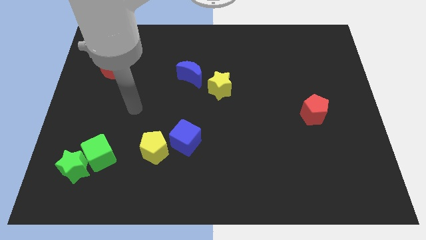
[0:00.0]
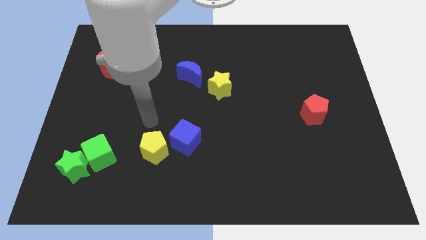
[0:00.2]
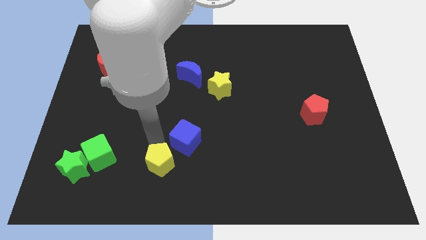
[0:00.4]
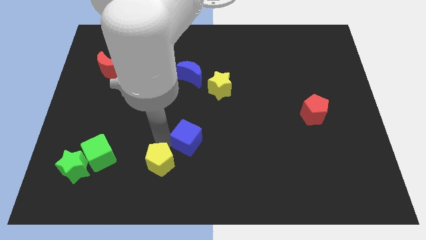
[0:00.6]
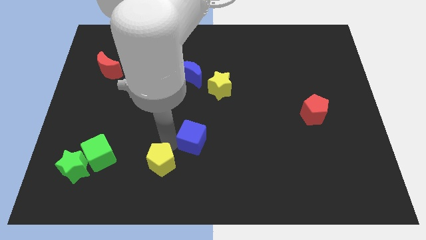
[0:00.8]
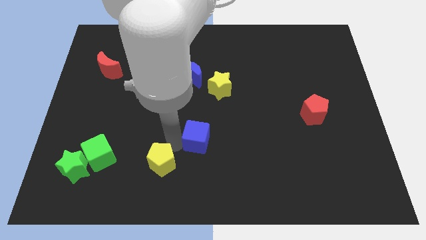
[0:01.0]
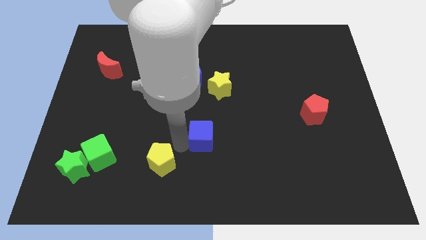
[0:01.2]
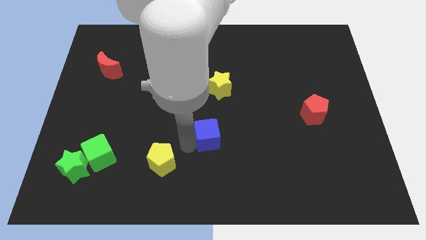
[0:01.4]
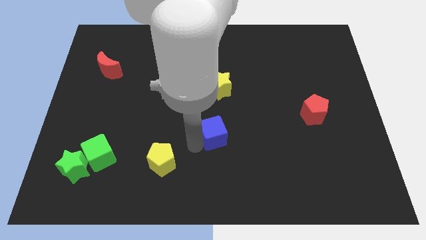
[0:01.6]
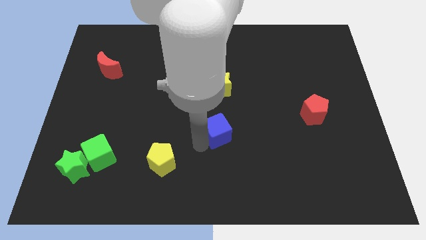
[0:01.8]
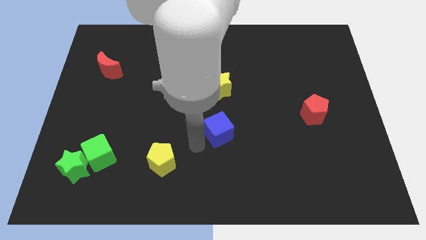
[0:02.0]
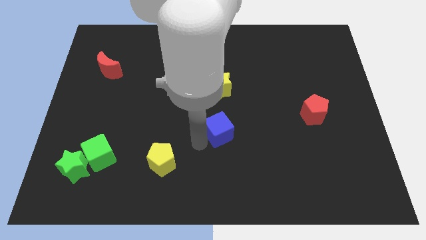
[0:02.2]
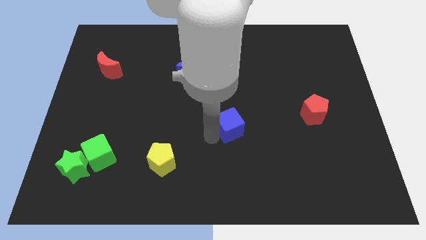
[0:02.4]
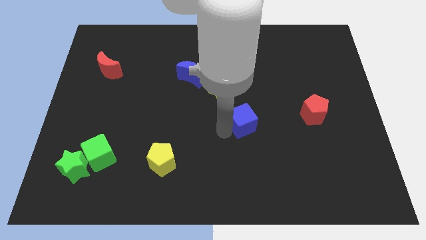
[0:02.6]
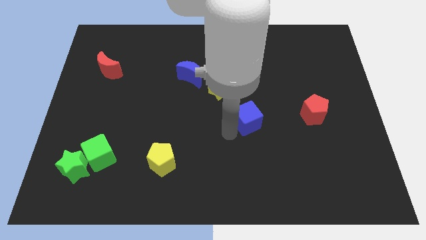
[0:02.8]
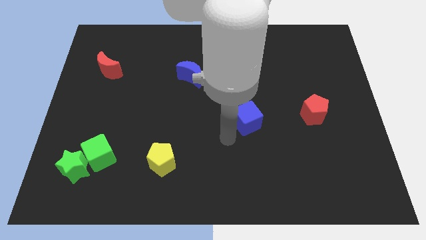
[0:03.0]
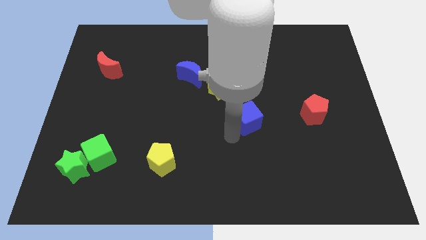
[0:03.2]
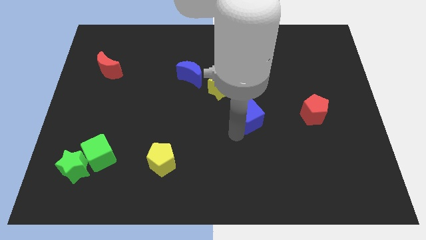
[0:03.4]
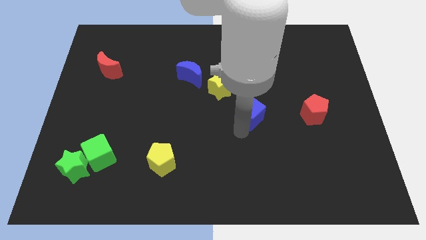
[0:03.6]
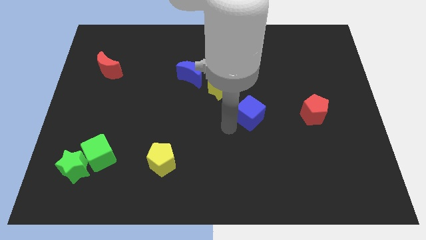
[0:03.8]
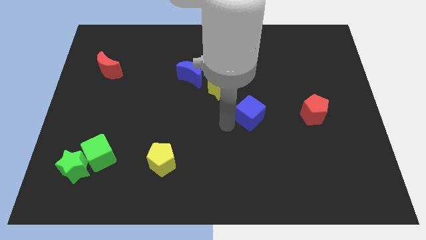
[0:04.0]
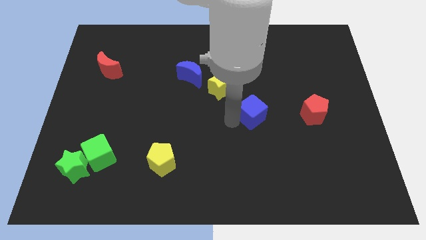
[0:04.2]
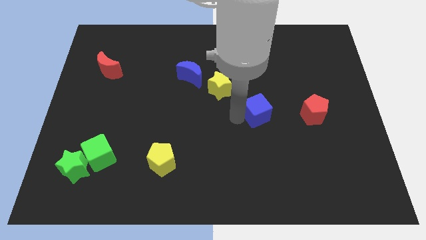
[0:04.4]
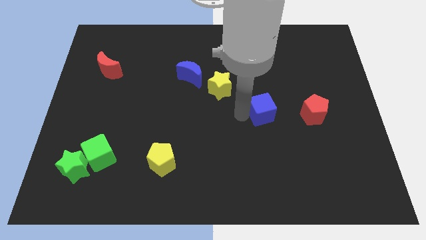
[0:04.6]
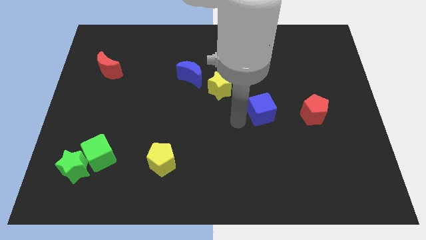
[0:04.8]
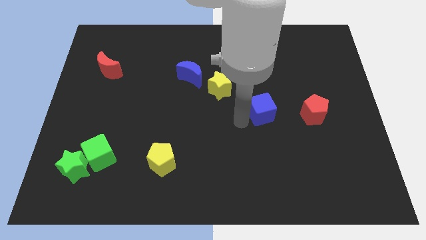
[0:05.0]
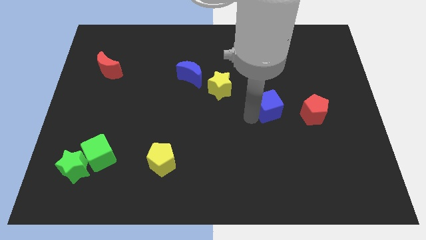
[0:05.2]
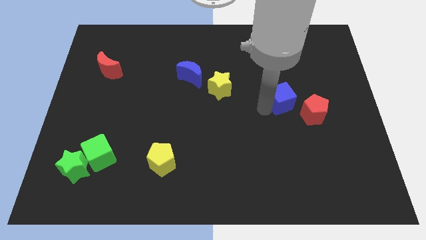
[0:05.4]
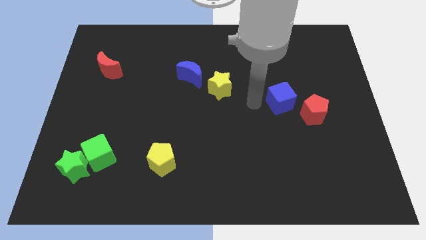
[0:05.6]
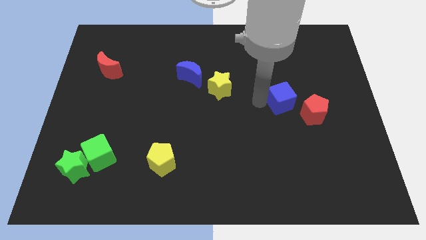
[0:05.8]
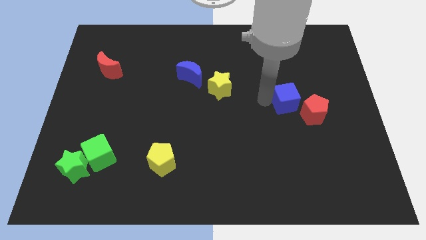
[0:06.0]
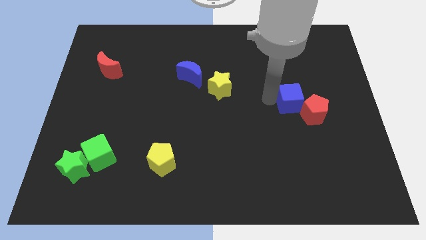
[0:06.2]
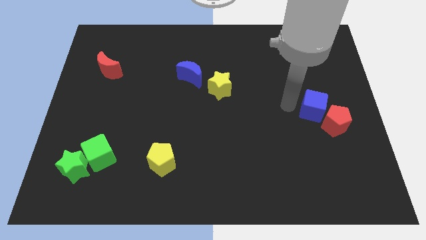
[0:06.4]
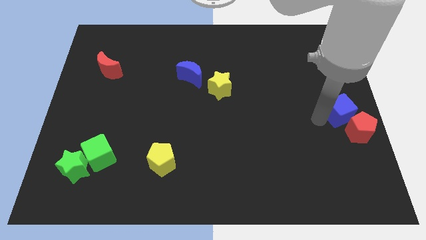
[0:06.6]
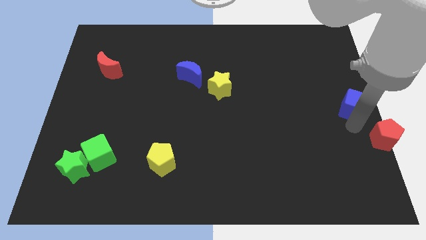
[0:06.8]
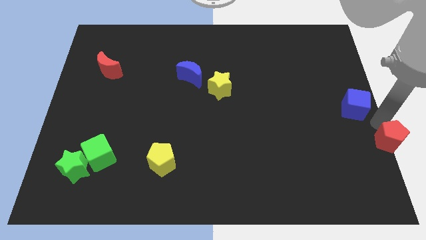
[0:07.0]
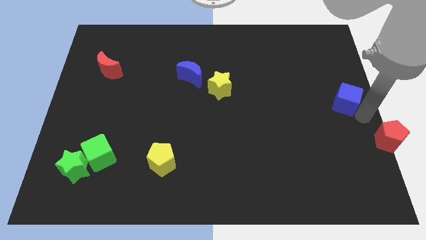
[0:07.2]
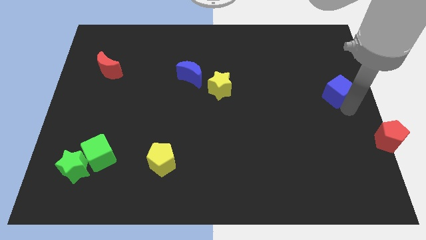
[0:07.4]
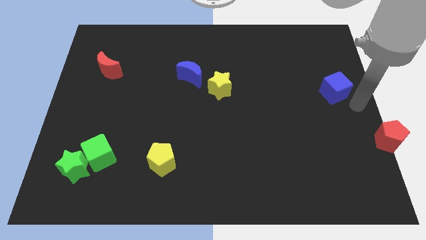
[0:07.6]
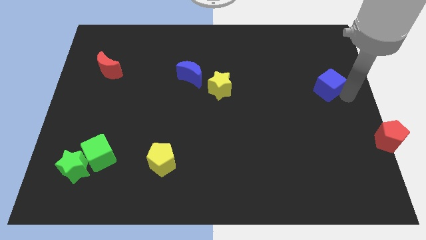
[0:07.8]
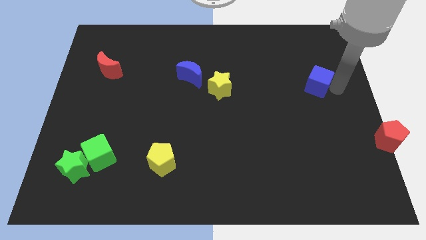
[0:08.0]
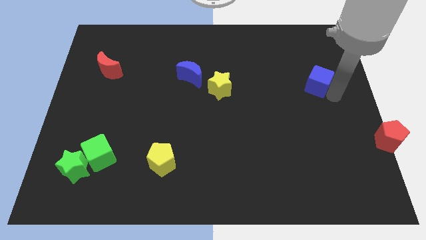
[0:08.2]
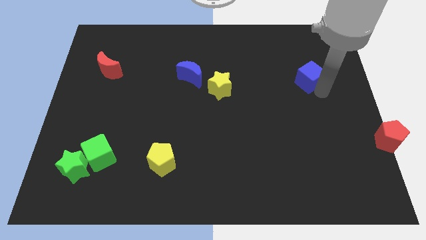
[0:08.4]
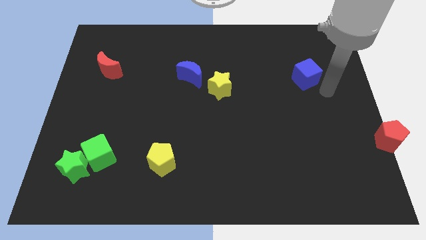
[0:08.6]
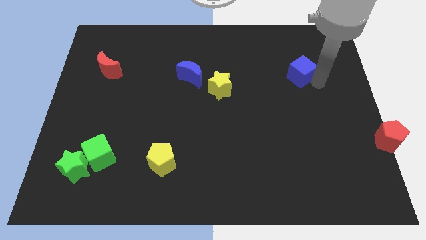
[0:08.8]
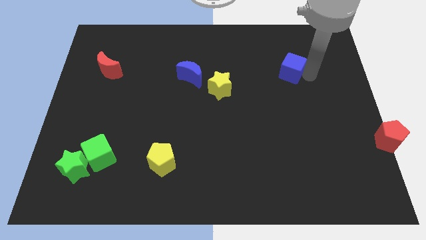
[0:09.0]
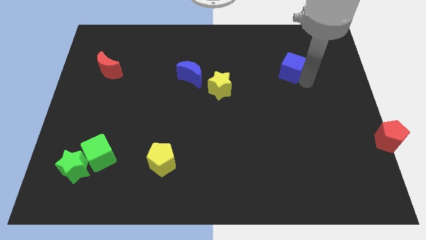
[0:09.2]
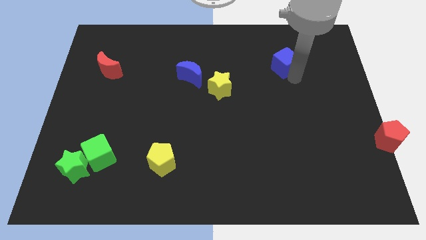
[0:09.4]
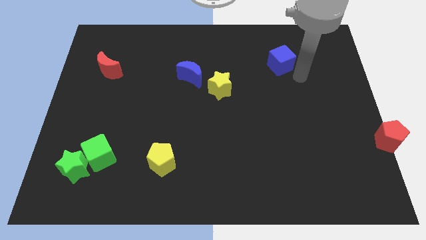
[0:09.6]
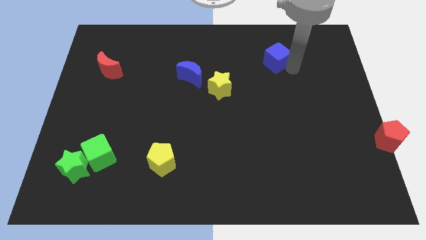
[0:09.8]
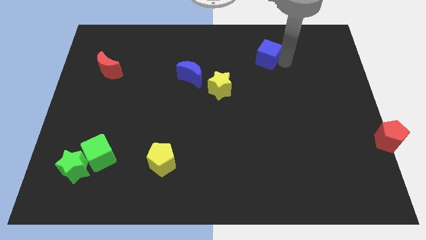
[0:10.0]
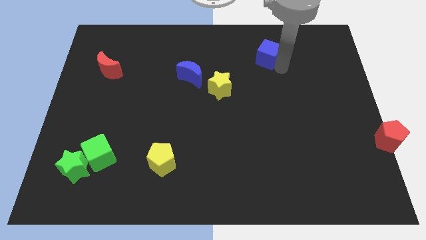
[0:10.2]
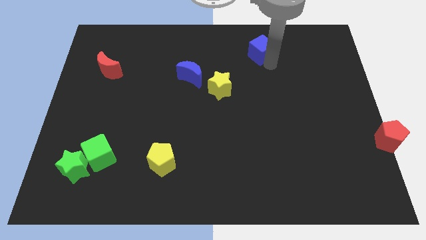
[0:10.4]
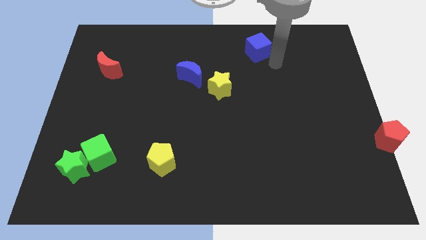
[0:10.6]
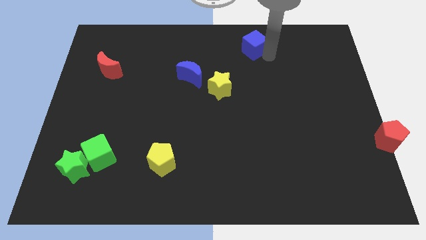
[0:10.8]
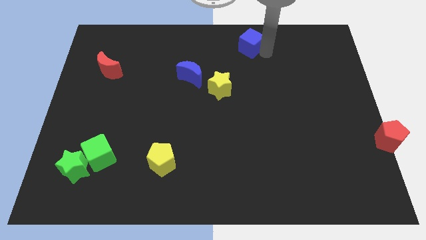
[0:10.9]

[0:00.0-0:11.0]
put the blue cube to the top side

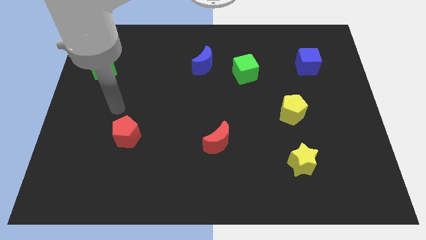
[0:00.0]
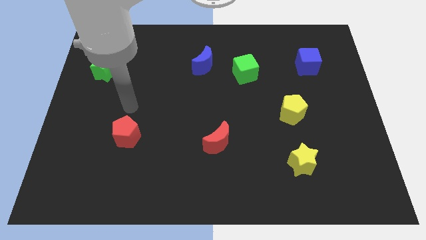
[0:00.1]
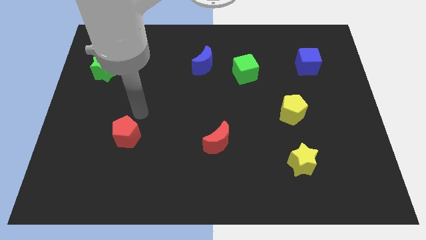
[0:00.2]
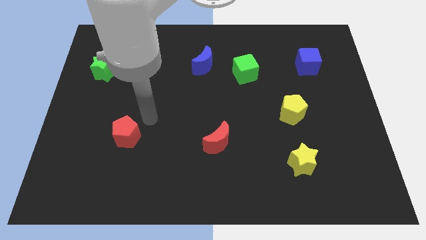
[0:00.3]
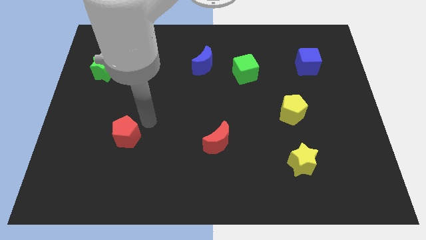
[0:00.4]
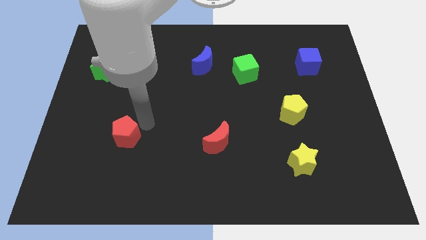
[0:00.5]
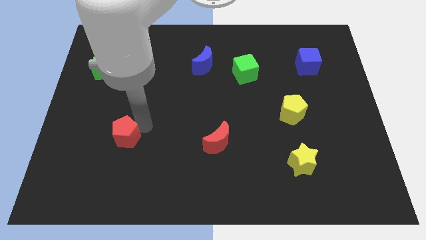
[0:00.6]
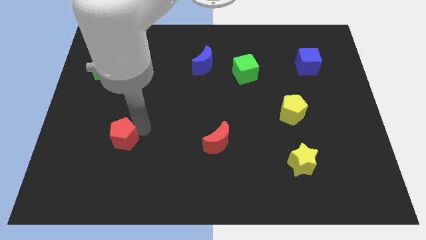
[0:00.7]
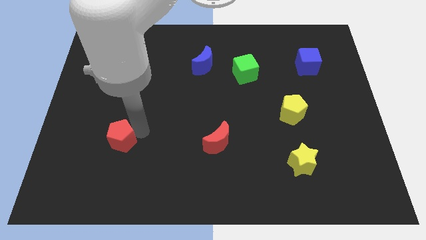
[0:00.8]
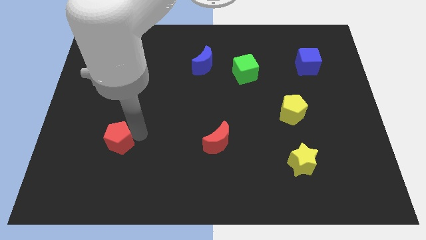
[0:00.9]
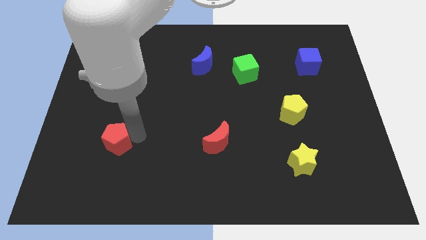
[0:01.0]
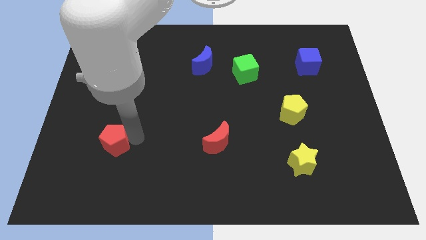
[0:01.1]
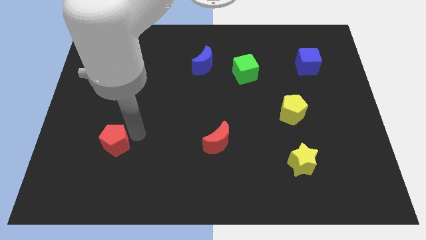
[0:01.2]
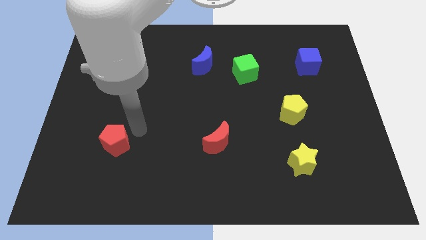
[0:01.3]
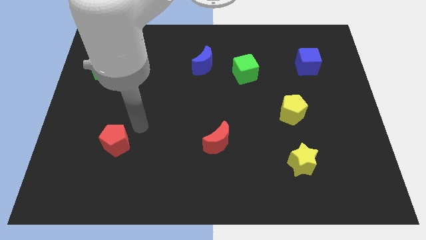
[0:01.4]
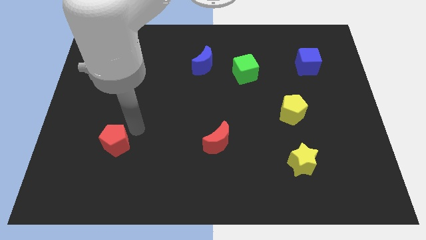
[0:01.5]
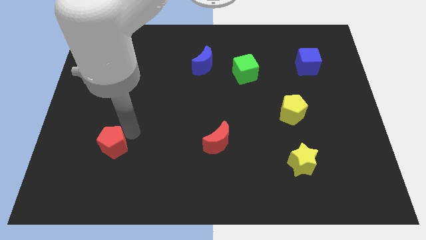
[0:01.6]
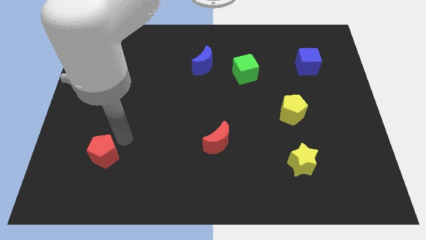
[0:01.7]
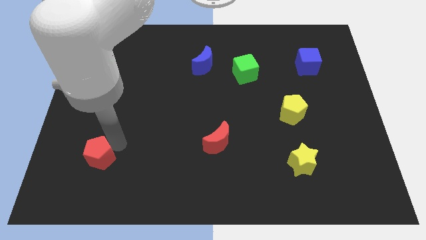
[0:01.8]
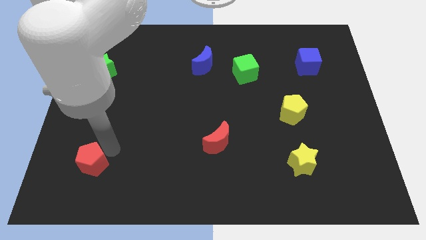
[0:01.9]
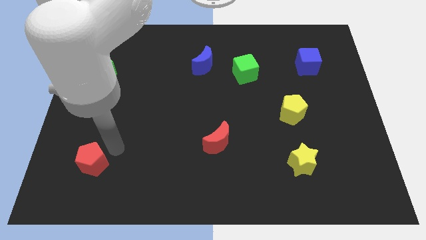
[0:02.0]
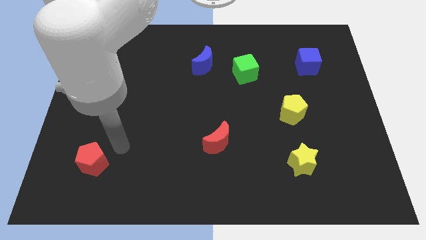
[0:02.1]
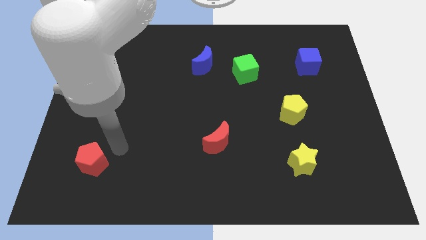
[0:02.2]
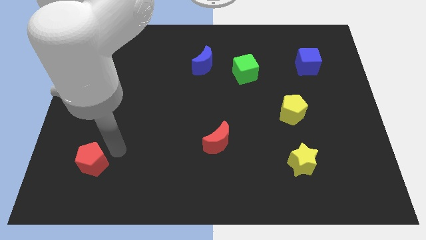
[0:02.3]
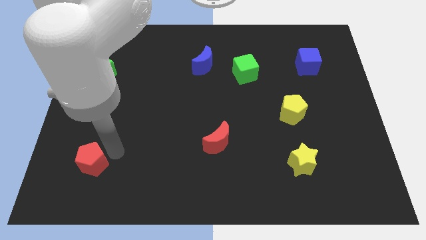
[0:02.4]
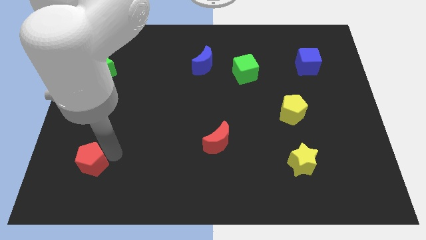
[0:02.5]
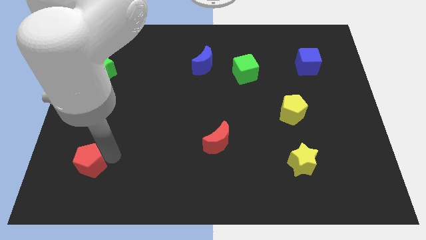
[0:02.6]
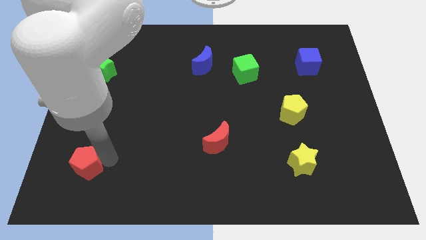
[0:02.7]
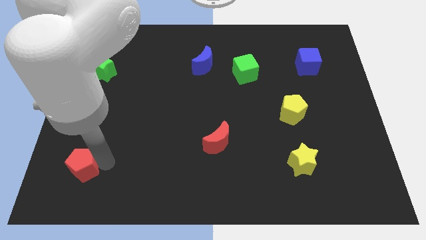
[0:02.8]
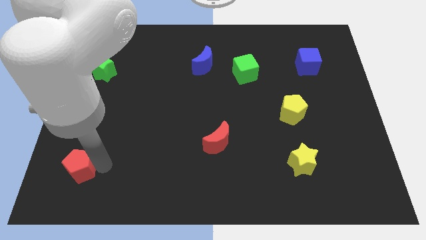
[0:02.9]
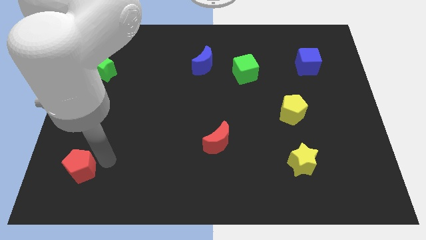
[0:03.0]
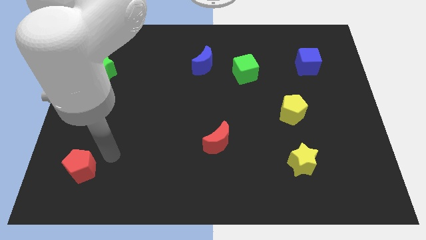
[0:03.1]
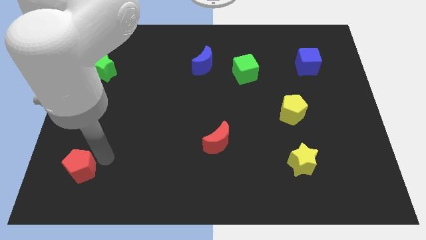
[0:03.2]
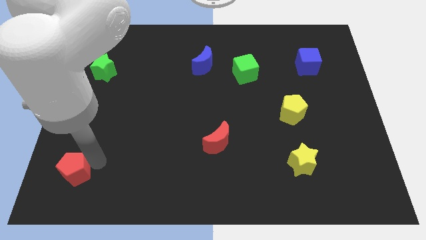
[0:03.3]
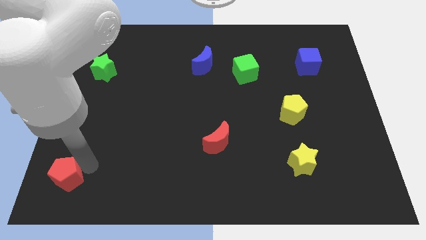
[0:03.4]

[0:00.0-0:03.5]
put the red pentagon to the bottom left corner
